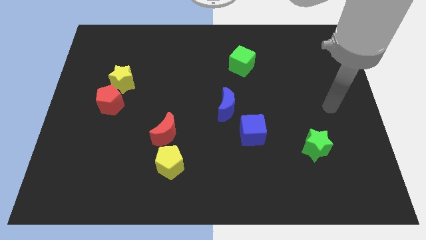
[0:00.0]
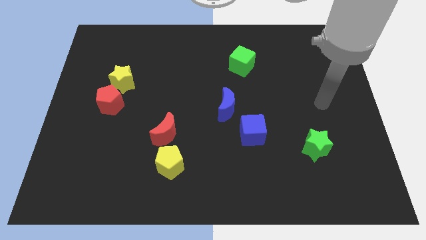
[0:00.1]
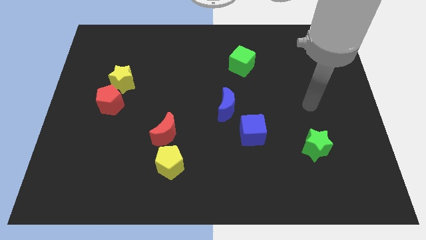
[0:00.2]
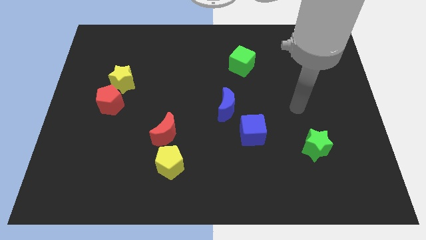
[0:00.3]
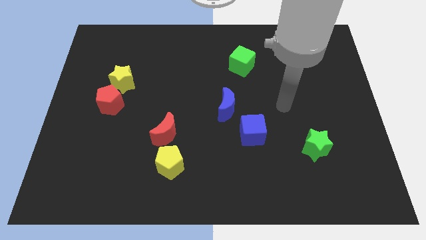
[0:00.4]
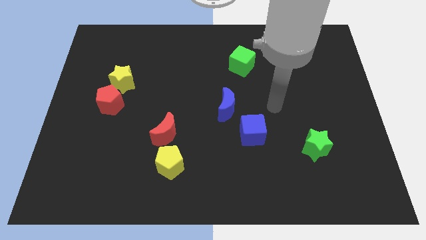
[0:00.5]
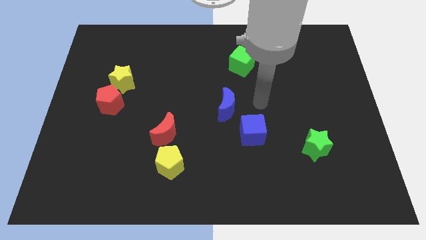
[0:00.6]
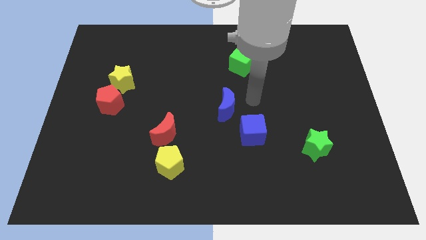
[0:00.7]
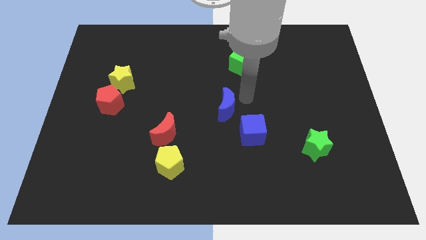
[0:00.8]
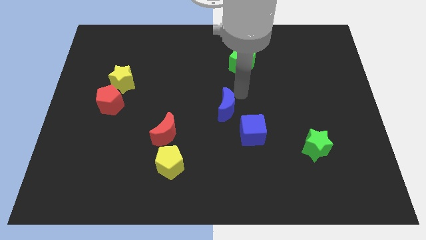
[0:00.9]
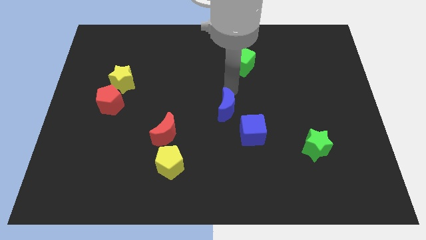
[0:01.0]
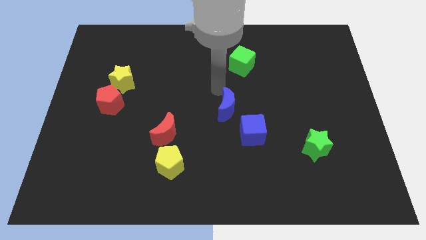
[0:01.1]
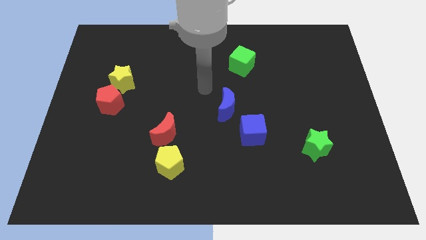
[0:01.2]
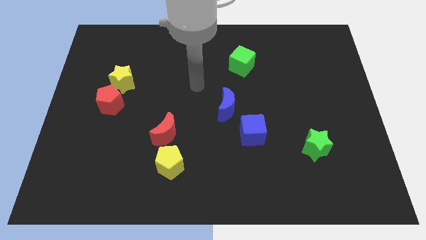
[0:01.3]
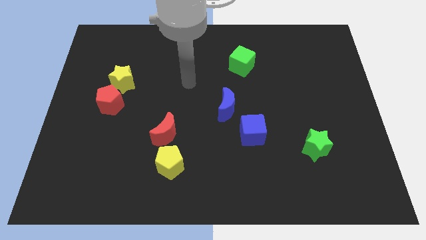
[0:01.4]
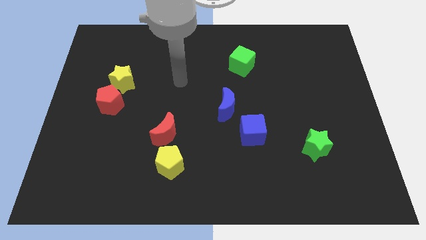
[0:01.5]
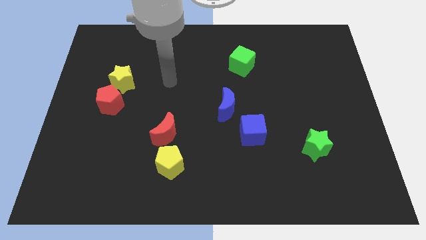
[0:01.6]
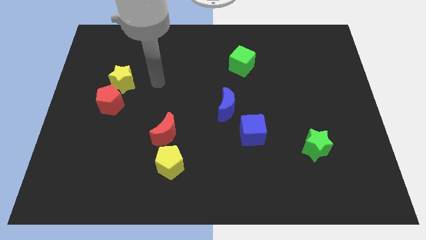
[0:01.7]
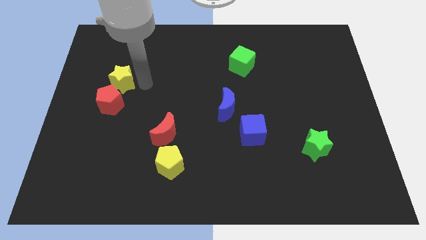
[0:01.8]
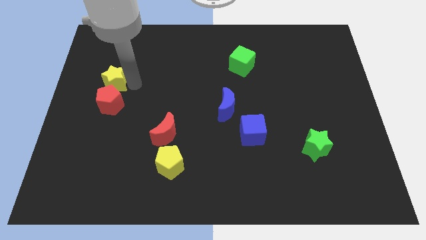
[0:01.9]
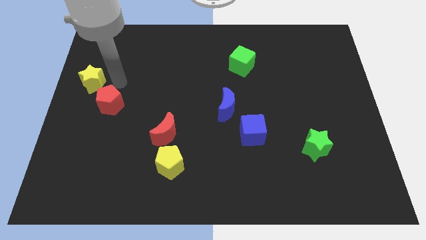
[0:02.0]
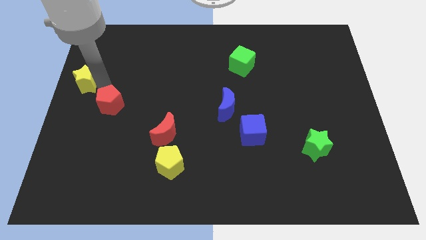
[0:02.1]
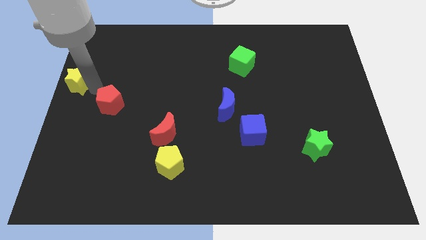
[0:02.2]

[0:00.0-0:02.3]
separate the red pentagon from the yellow star

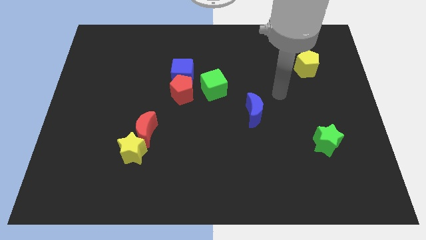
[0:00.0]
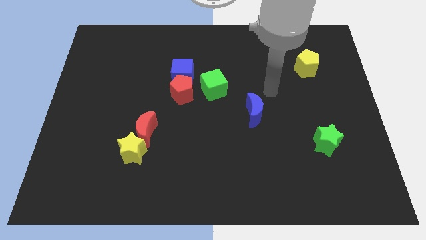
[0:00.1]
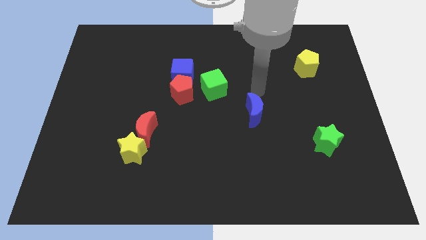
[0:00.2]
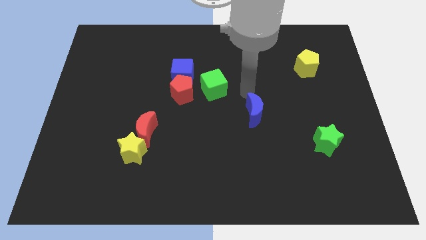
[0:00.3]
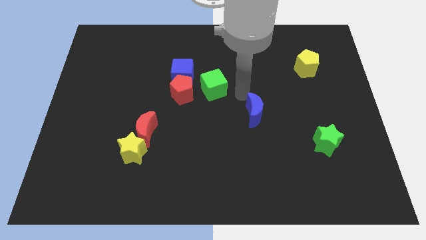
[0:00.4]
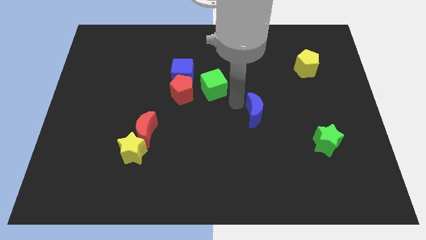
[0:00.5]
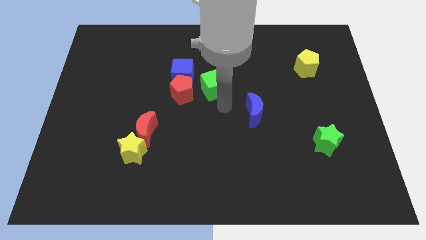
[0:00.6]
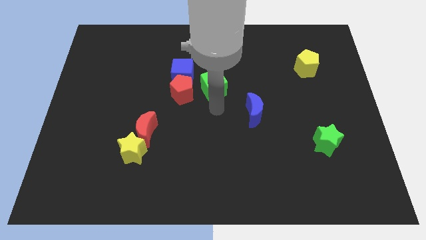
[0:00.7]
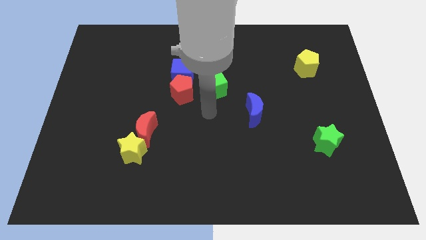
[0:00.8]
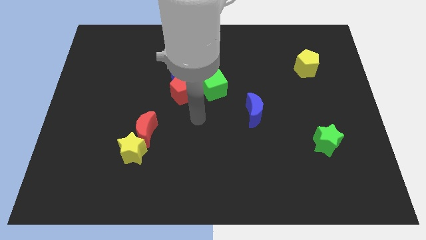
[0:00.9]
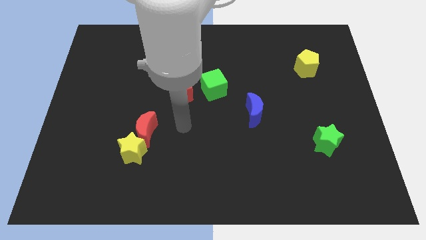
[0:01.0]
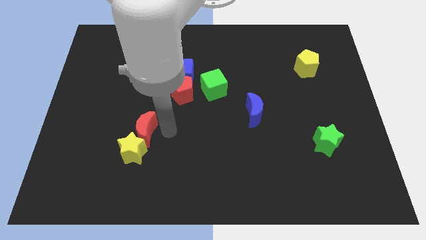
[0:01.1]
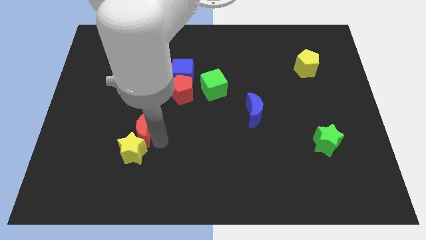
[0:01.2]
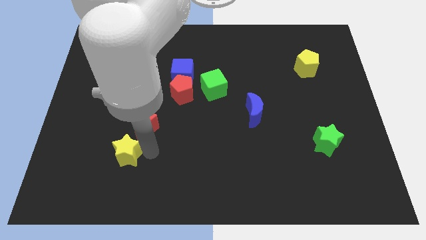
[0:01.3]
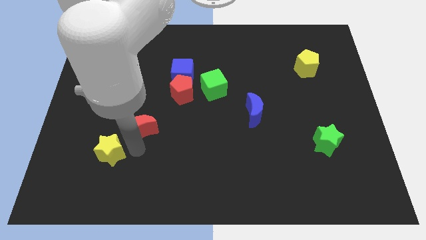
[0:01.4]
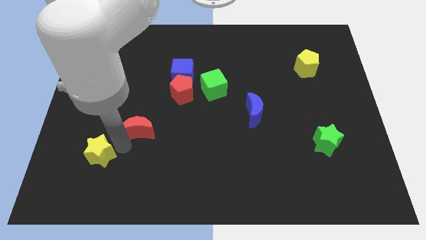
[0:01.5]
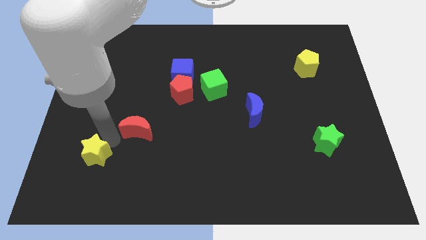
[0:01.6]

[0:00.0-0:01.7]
separate the red moon from the yellow star

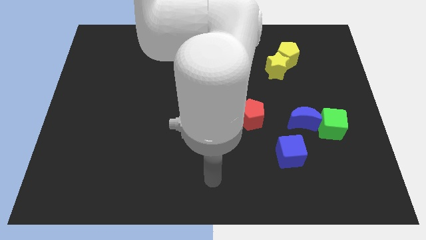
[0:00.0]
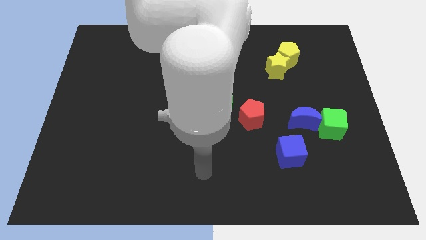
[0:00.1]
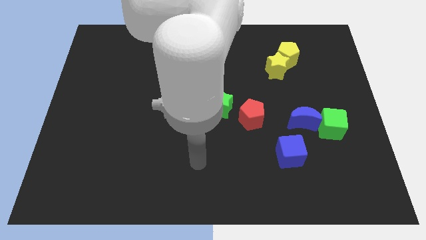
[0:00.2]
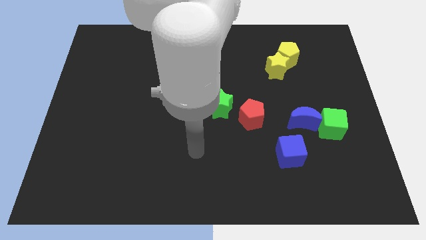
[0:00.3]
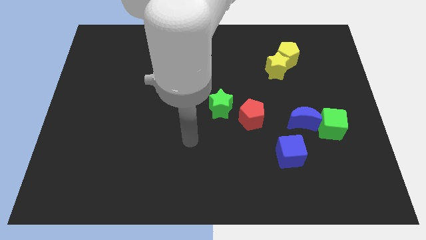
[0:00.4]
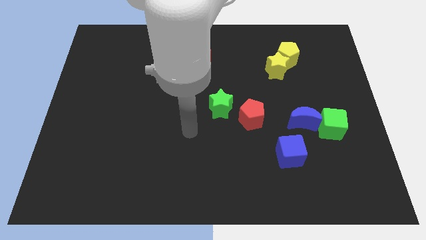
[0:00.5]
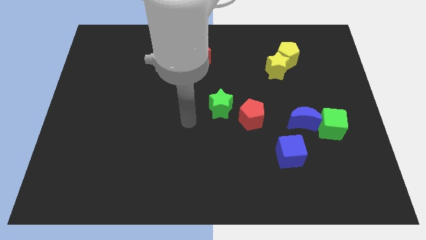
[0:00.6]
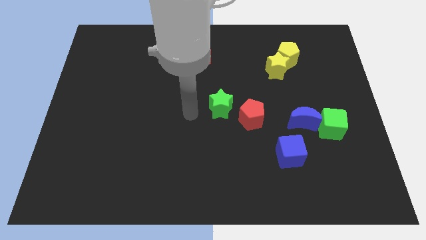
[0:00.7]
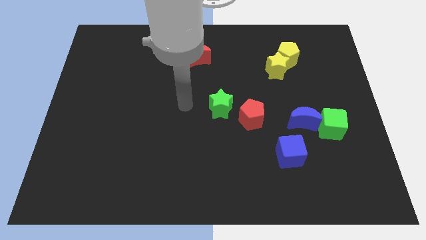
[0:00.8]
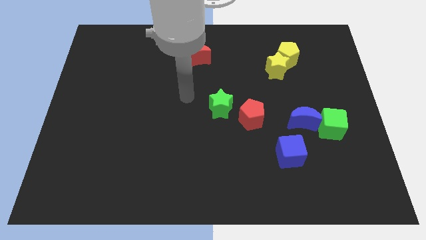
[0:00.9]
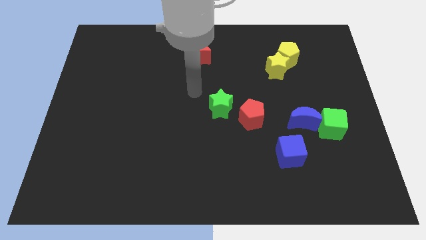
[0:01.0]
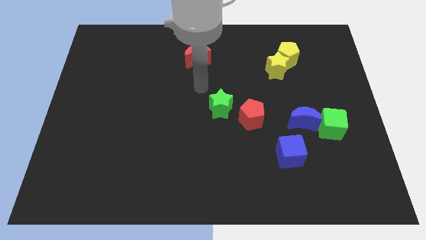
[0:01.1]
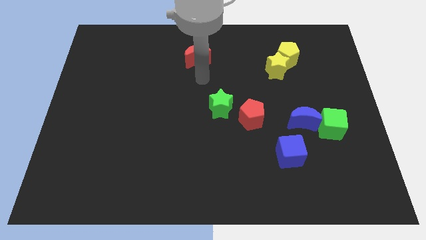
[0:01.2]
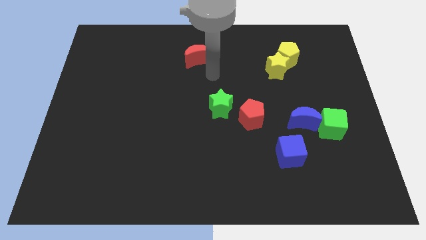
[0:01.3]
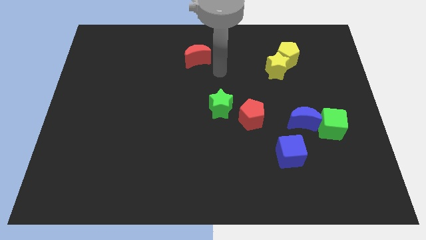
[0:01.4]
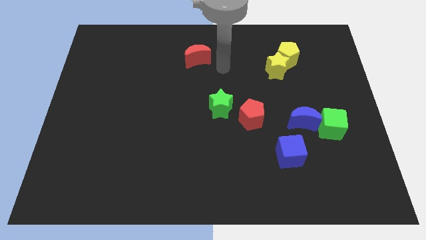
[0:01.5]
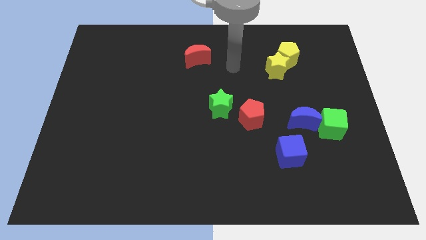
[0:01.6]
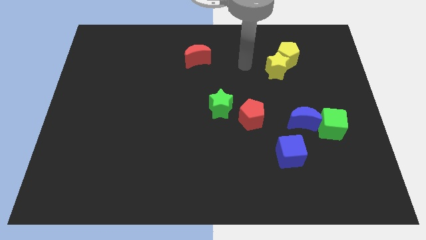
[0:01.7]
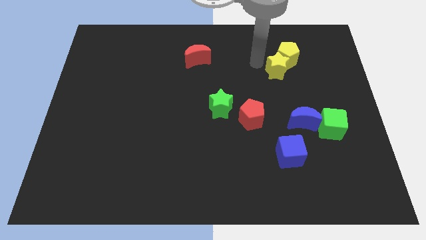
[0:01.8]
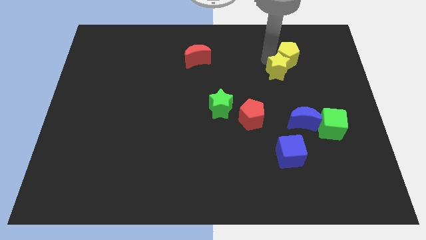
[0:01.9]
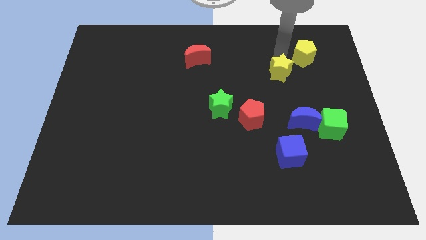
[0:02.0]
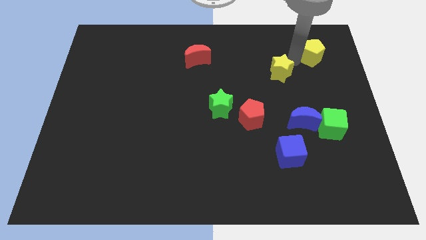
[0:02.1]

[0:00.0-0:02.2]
pull the yellow star apart from the yellow pentagon

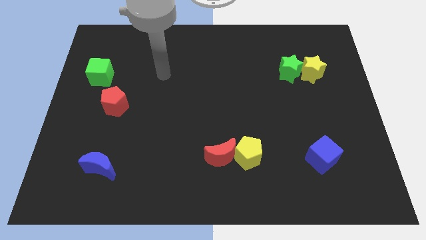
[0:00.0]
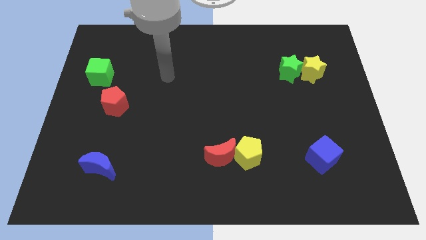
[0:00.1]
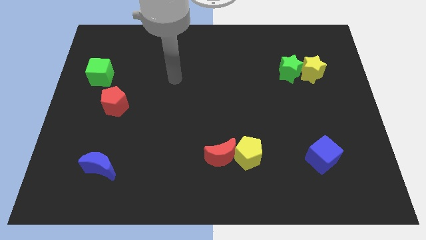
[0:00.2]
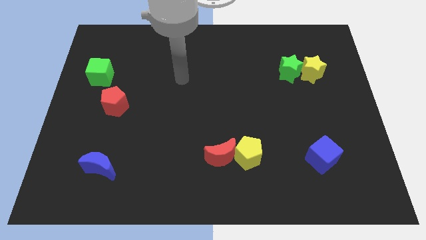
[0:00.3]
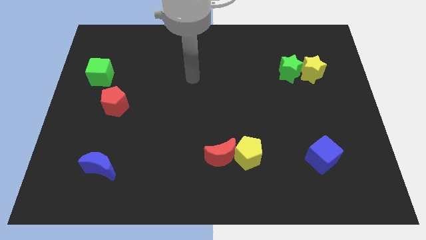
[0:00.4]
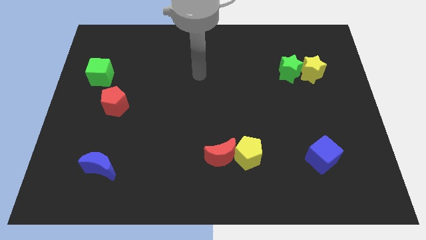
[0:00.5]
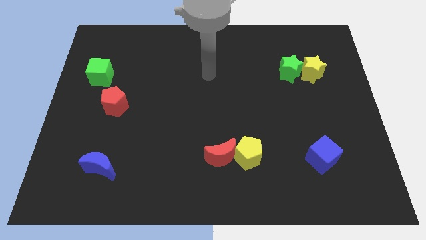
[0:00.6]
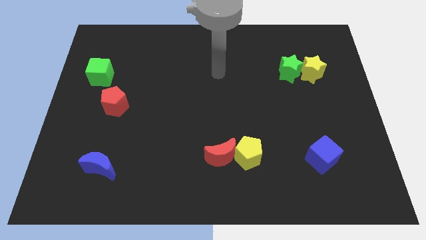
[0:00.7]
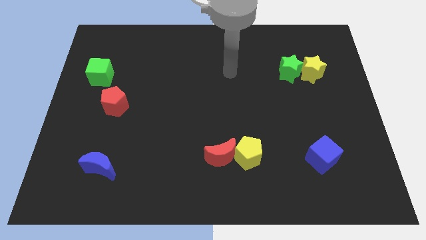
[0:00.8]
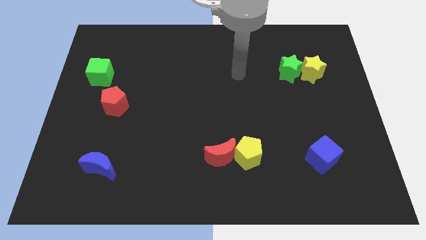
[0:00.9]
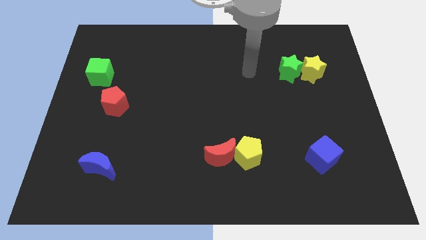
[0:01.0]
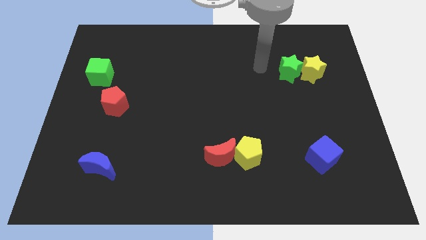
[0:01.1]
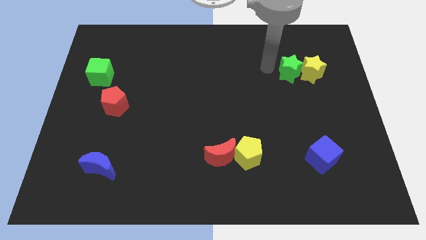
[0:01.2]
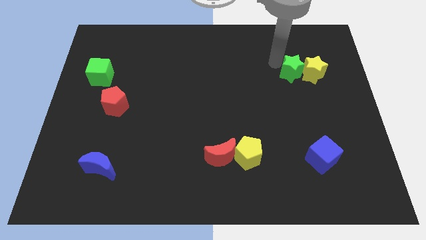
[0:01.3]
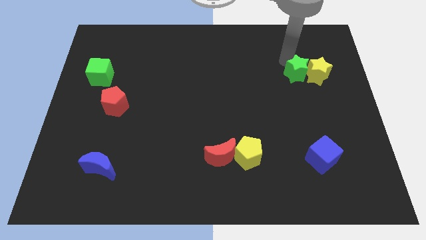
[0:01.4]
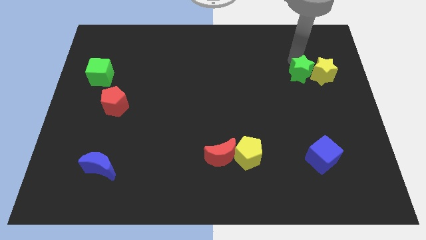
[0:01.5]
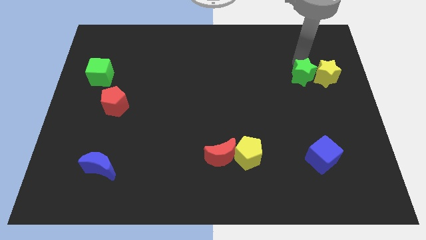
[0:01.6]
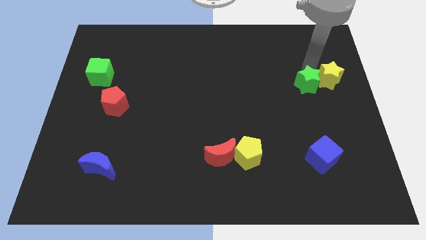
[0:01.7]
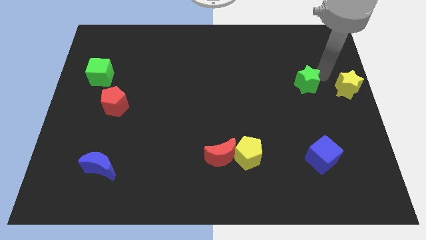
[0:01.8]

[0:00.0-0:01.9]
pull the green star apart from the yellow star

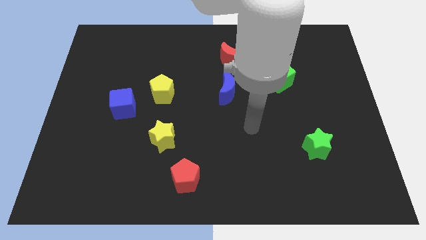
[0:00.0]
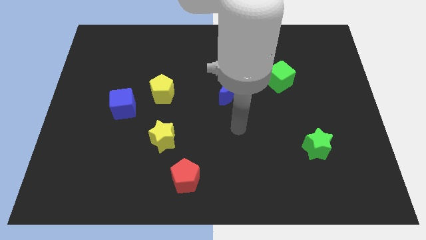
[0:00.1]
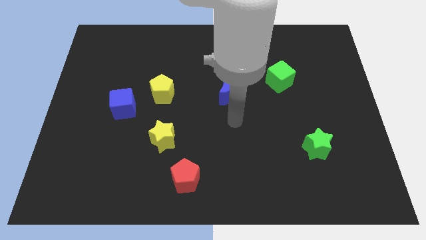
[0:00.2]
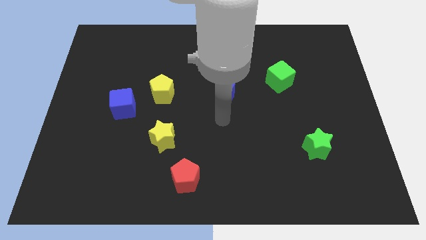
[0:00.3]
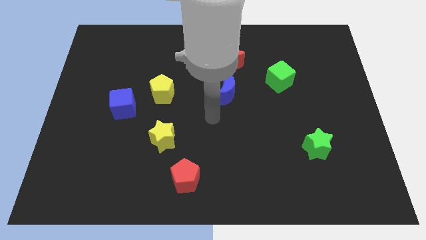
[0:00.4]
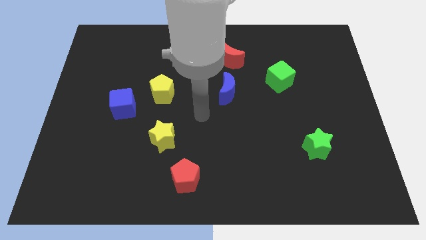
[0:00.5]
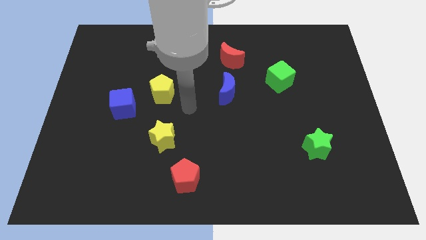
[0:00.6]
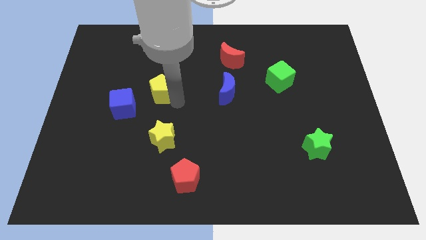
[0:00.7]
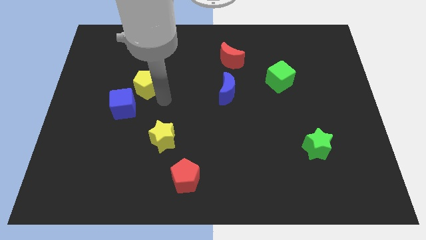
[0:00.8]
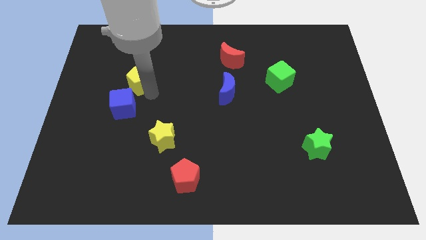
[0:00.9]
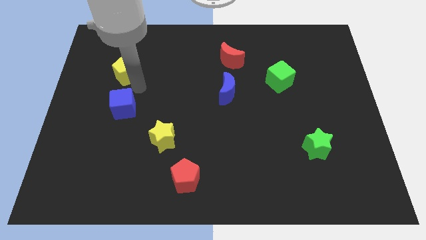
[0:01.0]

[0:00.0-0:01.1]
separate the blue cube from the yellow pentagon
